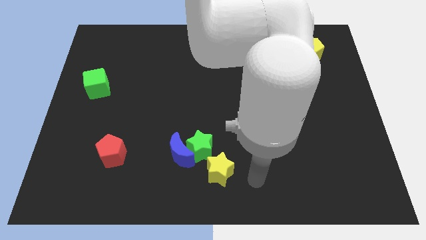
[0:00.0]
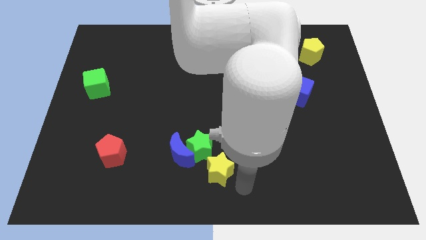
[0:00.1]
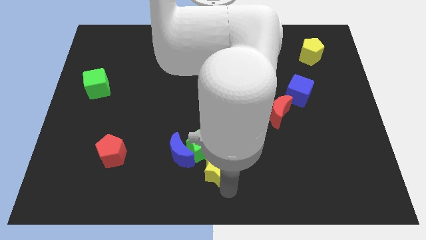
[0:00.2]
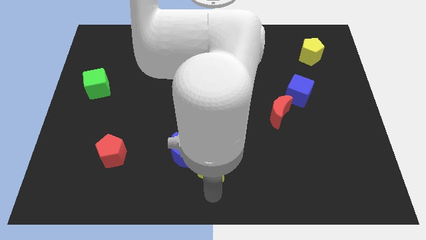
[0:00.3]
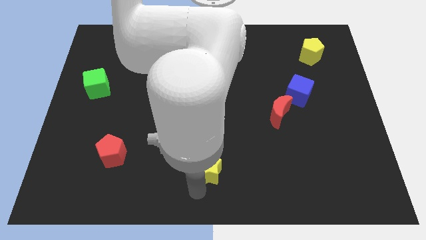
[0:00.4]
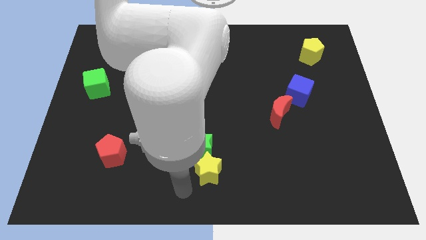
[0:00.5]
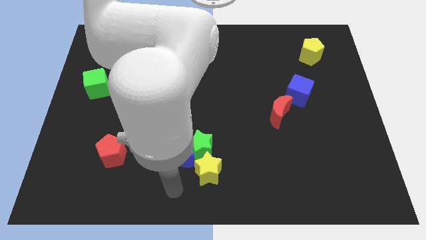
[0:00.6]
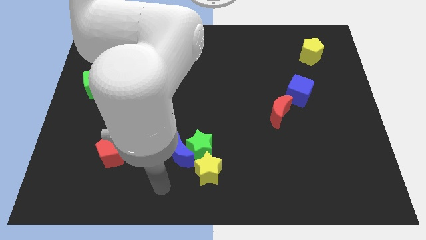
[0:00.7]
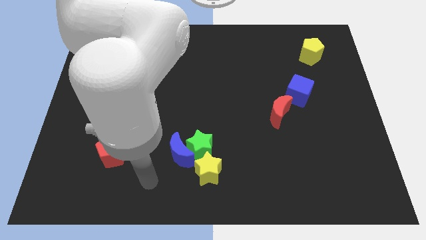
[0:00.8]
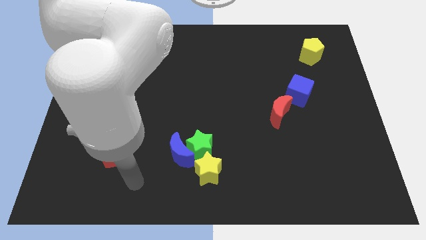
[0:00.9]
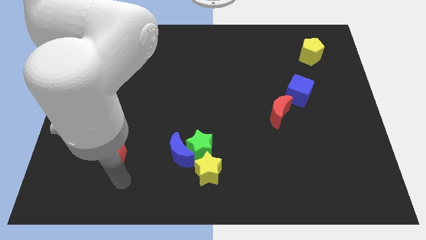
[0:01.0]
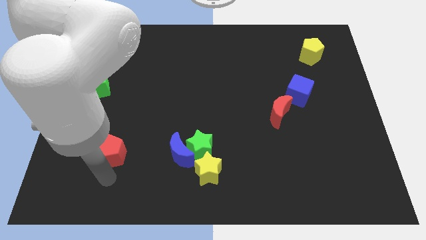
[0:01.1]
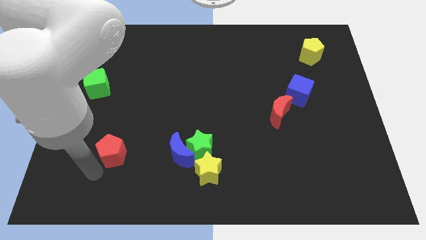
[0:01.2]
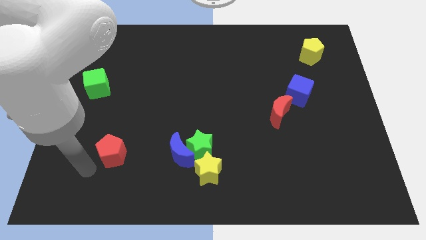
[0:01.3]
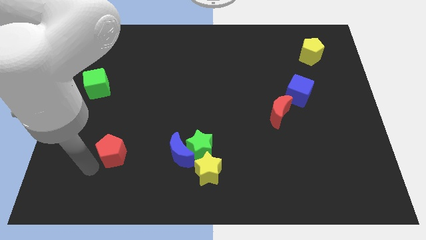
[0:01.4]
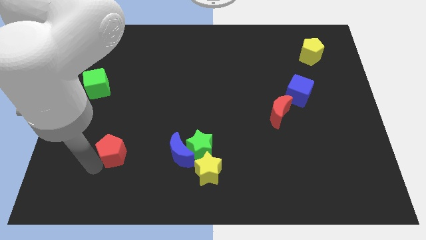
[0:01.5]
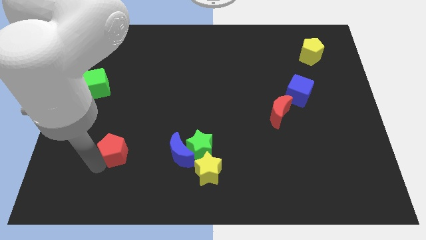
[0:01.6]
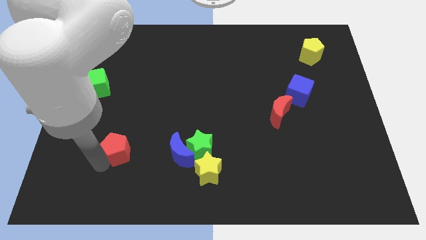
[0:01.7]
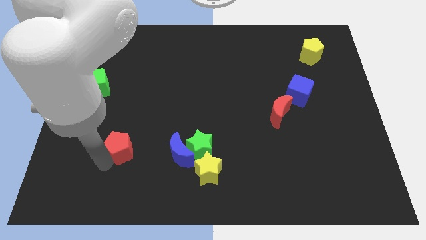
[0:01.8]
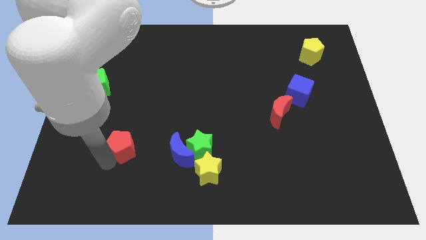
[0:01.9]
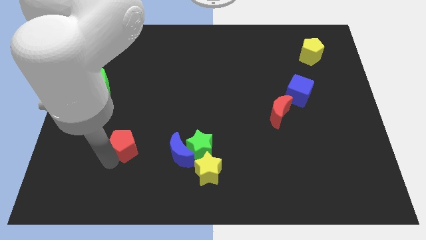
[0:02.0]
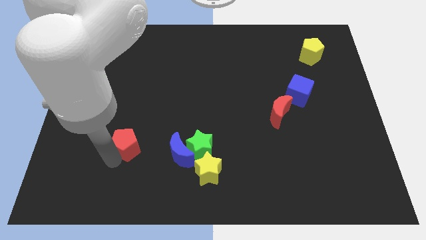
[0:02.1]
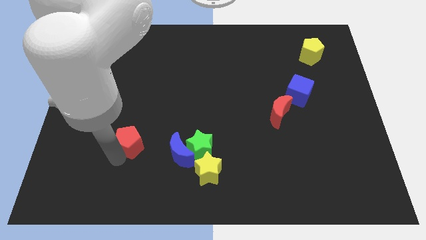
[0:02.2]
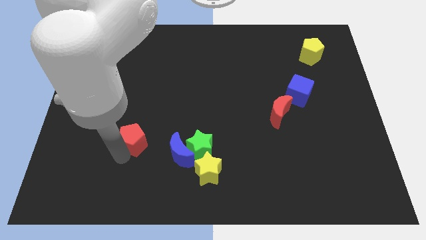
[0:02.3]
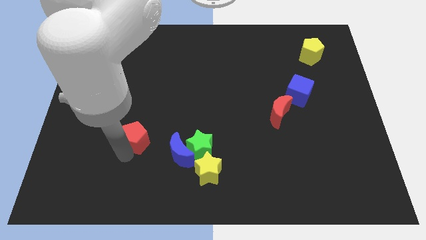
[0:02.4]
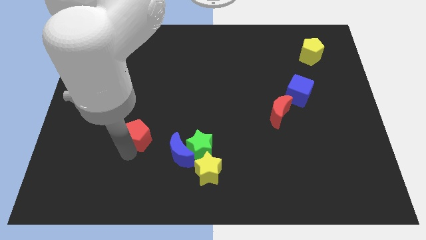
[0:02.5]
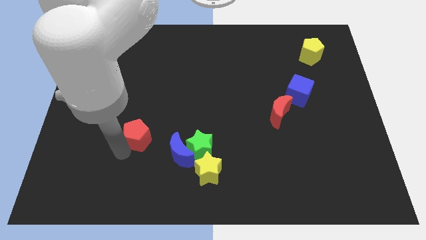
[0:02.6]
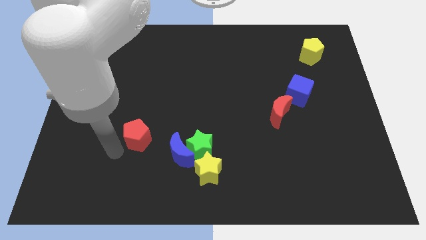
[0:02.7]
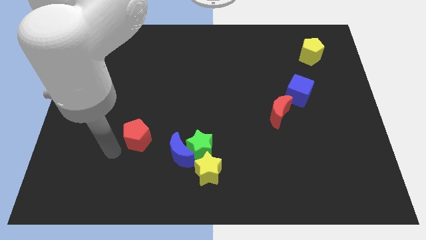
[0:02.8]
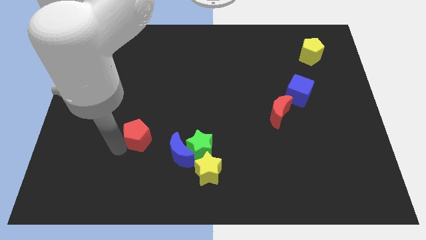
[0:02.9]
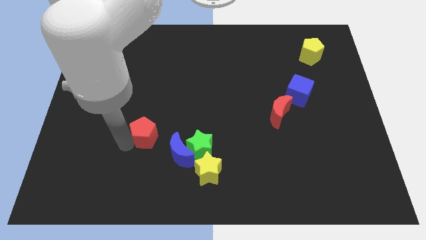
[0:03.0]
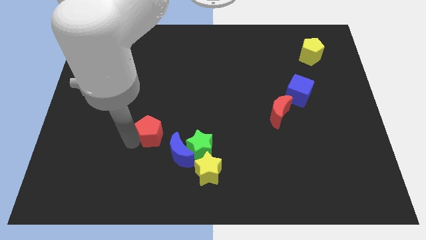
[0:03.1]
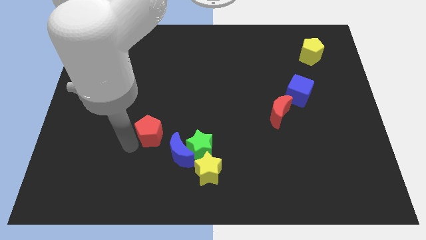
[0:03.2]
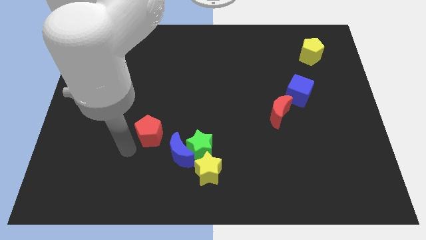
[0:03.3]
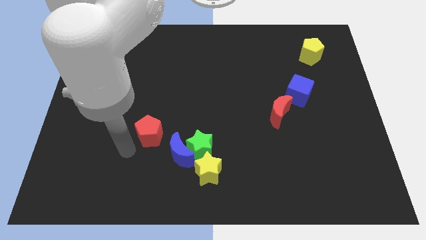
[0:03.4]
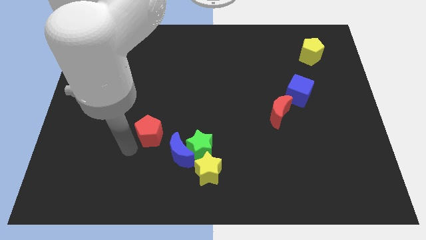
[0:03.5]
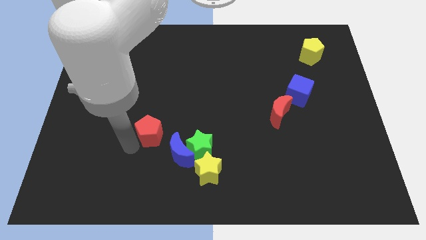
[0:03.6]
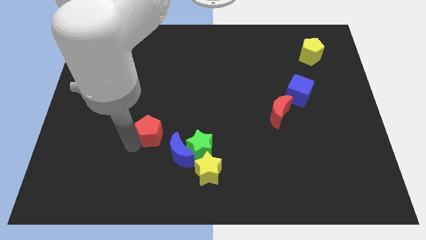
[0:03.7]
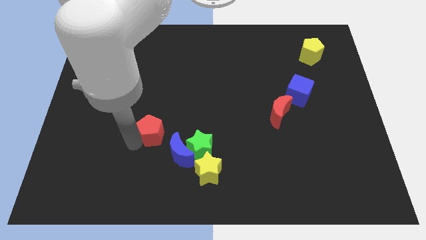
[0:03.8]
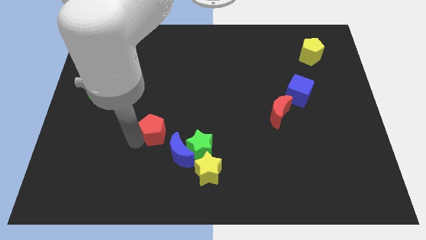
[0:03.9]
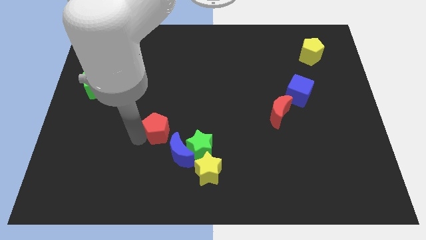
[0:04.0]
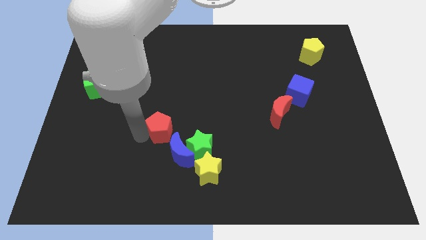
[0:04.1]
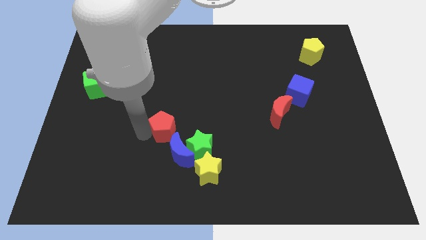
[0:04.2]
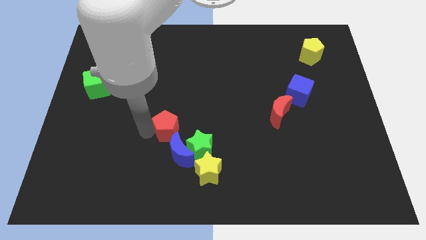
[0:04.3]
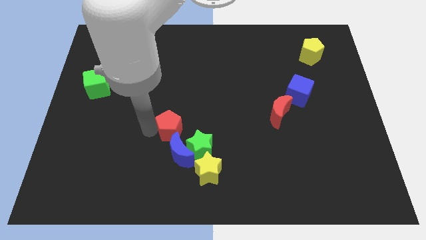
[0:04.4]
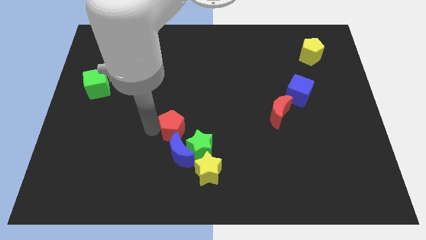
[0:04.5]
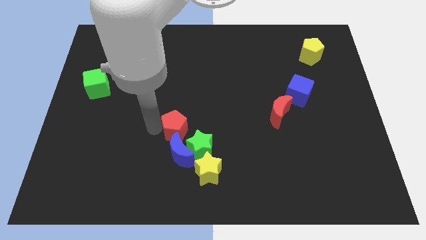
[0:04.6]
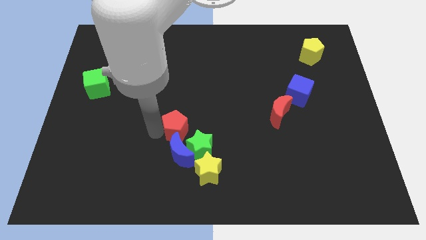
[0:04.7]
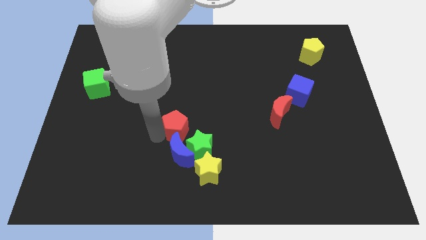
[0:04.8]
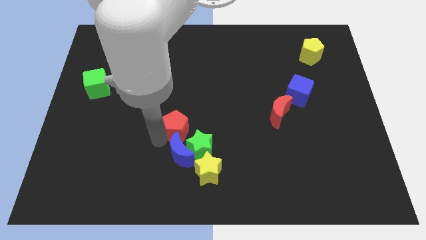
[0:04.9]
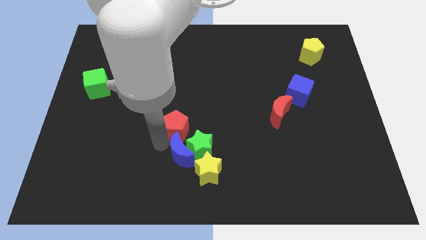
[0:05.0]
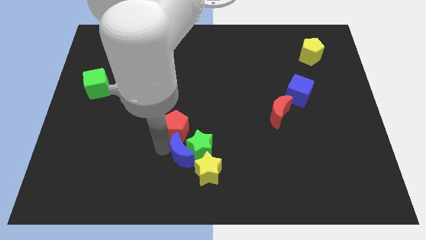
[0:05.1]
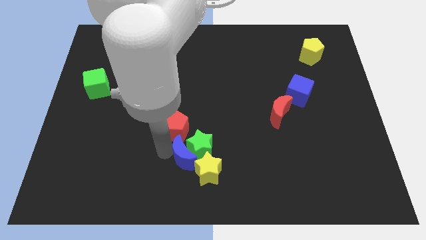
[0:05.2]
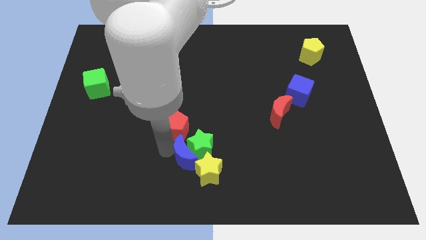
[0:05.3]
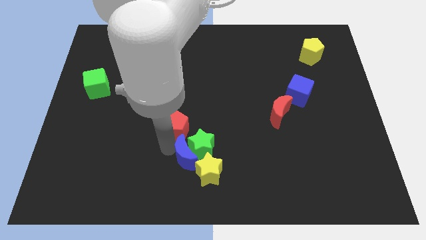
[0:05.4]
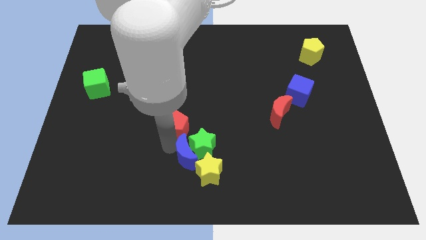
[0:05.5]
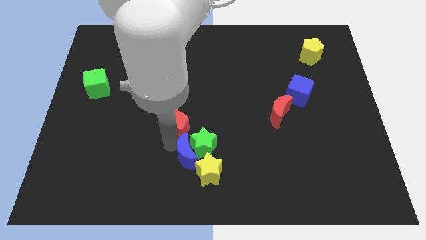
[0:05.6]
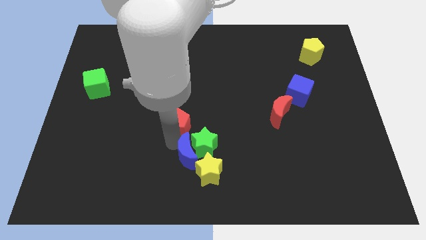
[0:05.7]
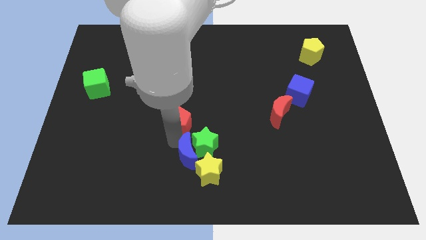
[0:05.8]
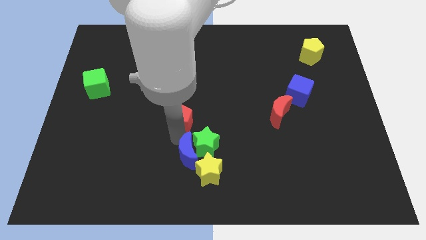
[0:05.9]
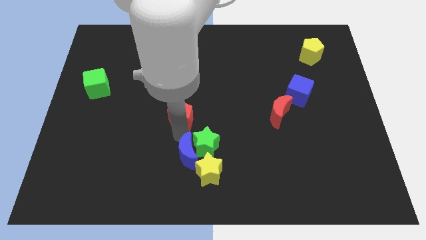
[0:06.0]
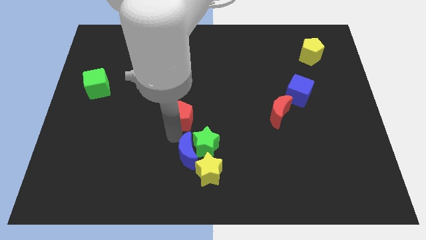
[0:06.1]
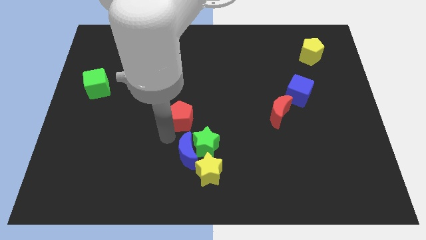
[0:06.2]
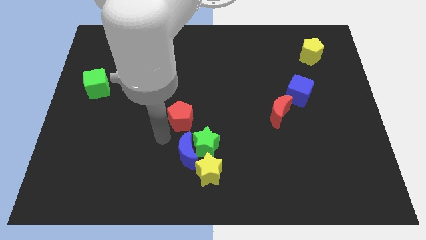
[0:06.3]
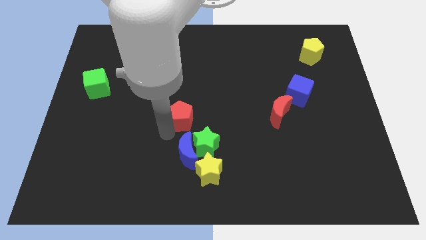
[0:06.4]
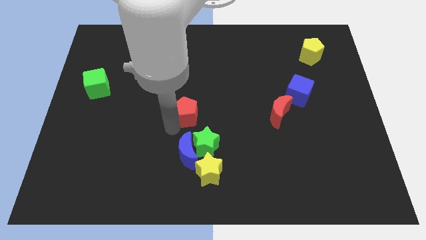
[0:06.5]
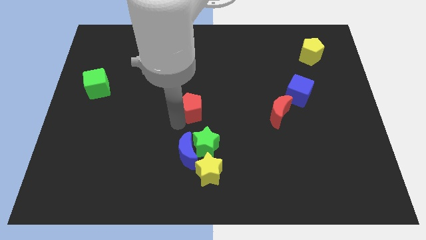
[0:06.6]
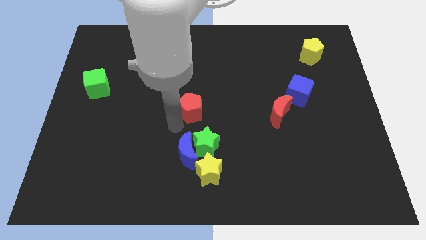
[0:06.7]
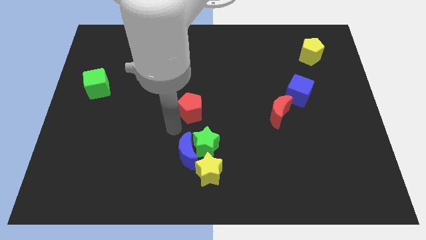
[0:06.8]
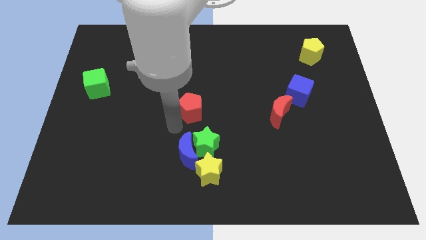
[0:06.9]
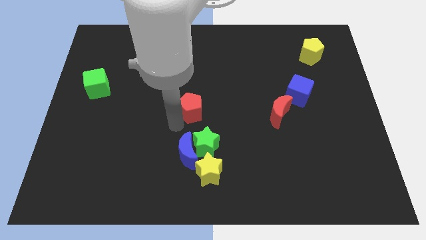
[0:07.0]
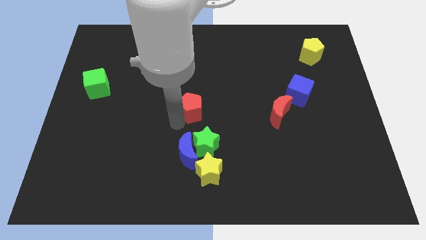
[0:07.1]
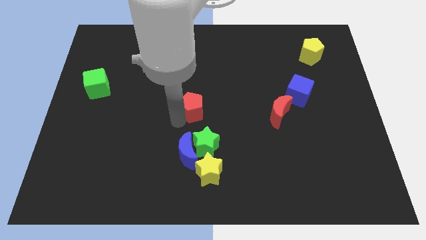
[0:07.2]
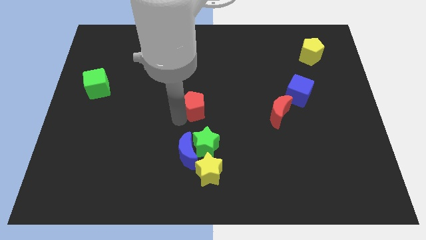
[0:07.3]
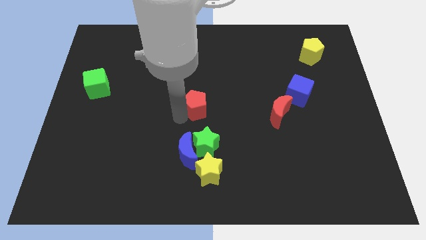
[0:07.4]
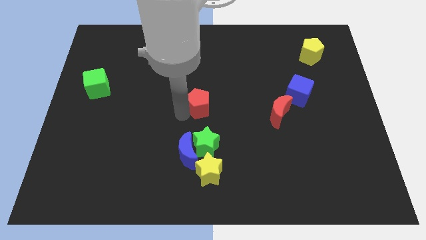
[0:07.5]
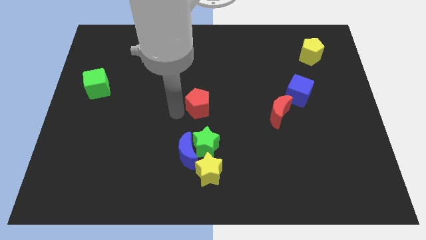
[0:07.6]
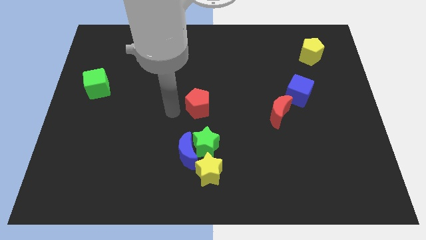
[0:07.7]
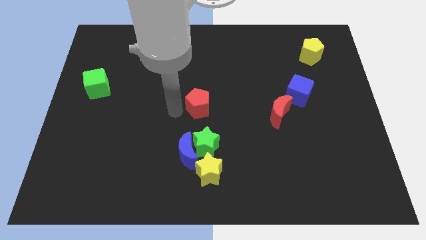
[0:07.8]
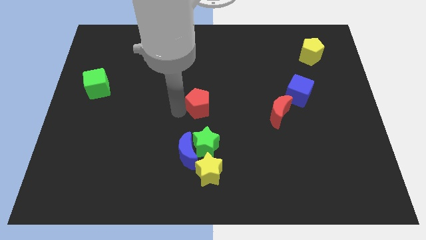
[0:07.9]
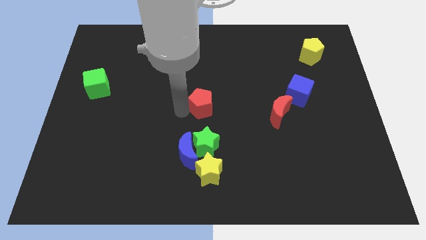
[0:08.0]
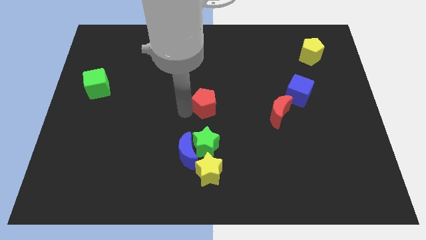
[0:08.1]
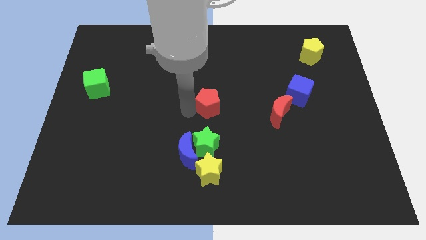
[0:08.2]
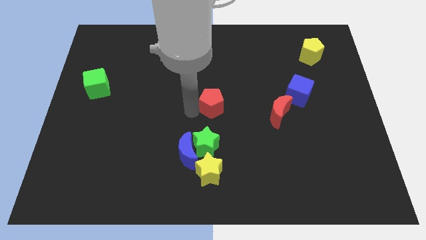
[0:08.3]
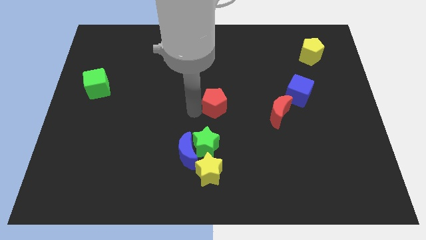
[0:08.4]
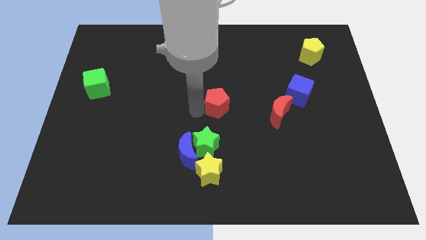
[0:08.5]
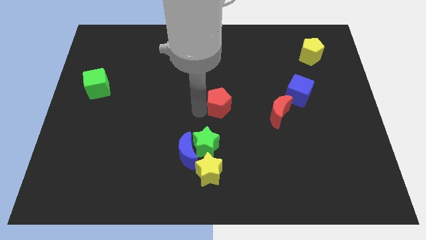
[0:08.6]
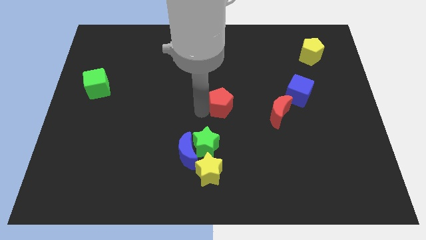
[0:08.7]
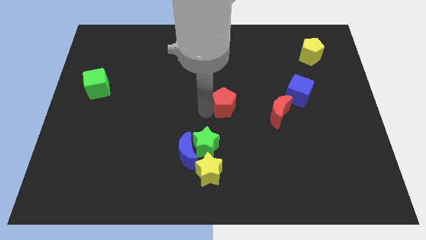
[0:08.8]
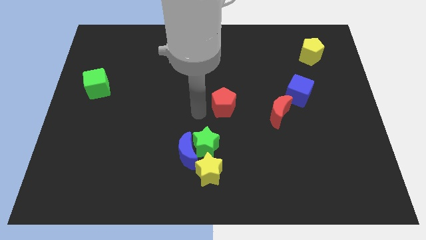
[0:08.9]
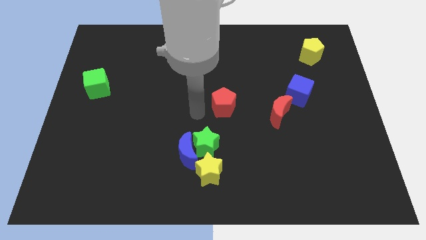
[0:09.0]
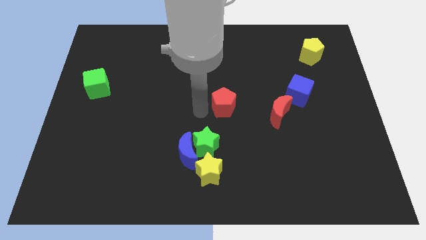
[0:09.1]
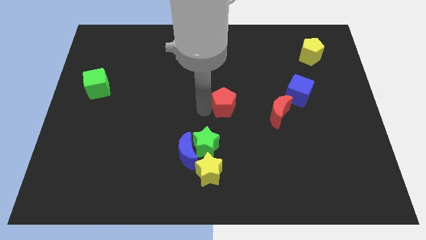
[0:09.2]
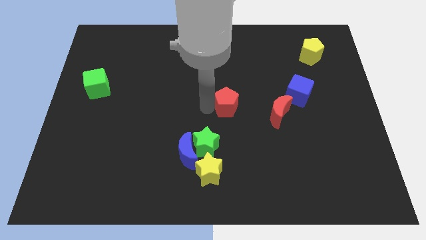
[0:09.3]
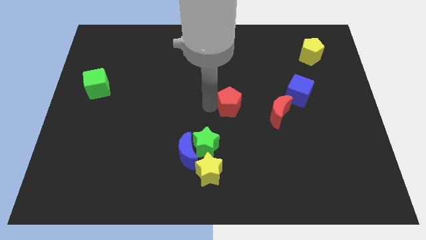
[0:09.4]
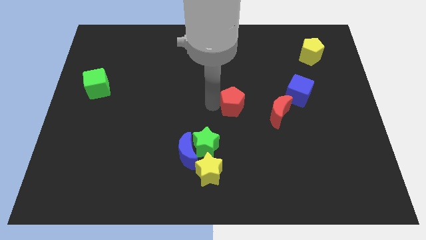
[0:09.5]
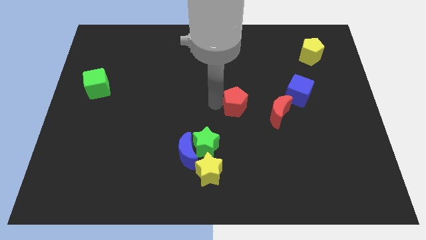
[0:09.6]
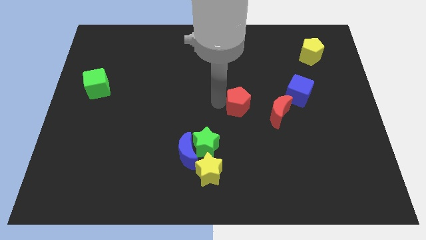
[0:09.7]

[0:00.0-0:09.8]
put the red pentagon diagonally up and to the left of the red moon
